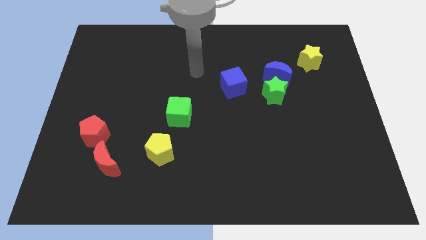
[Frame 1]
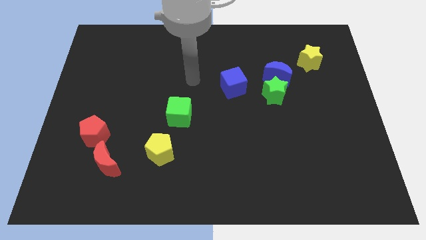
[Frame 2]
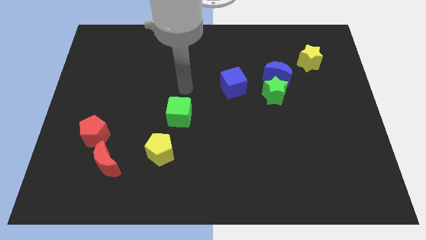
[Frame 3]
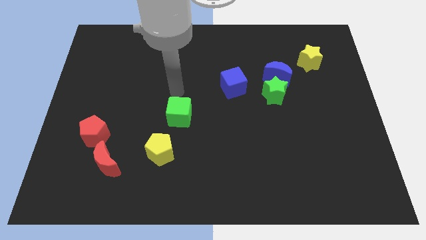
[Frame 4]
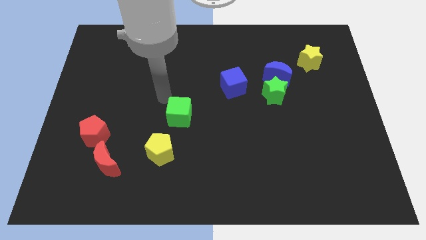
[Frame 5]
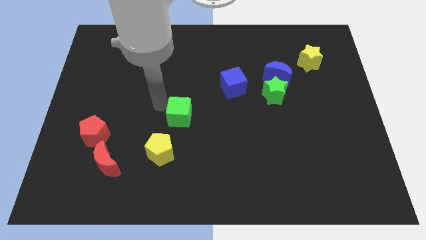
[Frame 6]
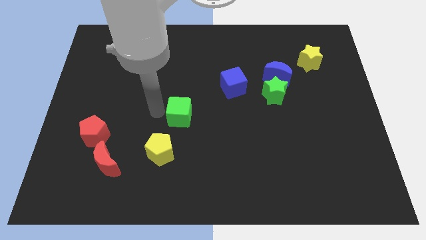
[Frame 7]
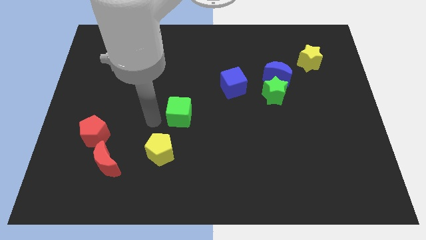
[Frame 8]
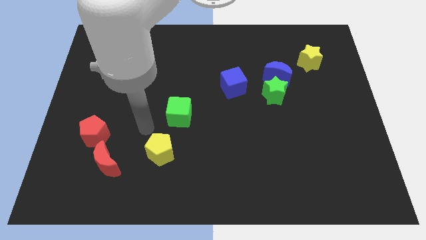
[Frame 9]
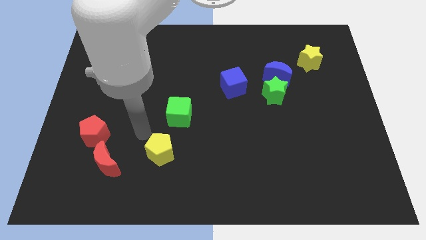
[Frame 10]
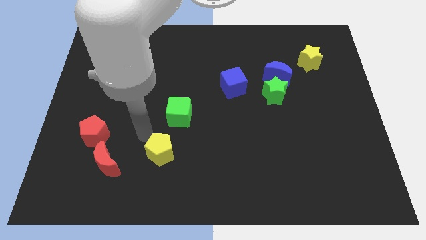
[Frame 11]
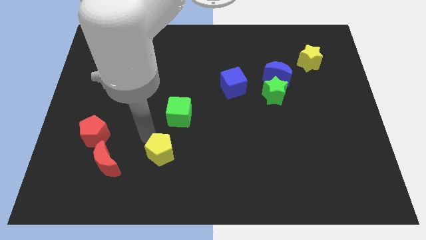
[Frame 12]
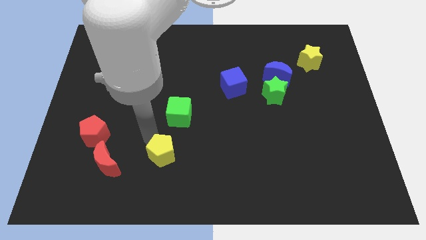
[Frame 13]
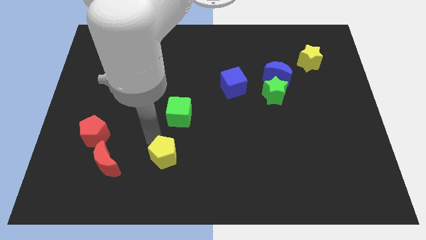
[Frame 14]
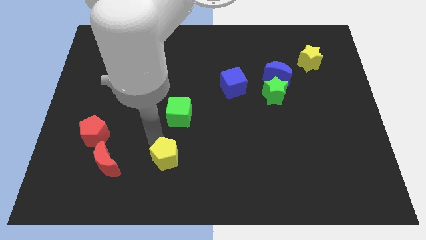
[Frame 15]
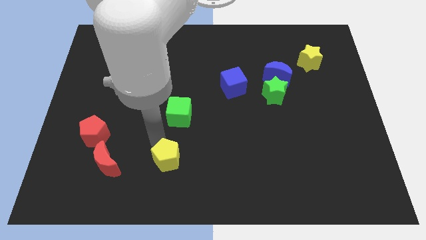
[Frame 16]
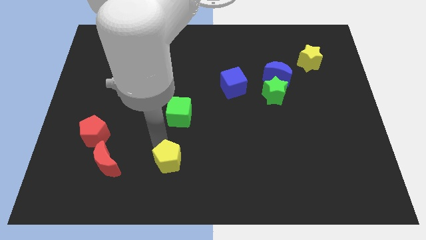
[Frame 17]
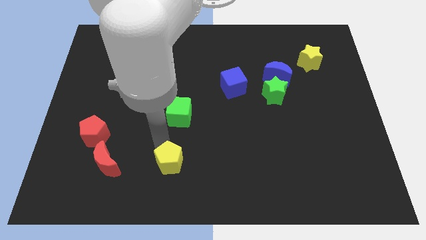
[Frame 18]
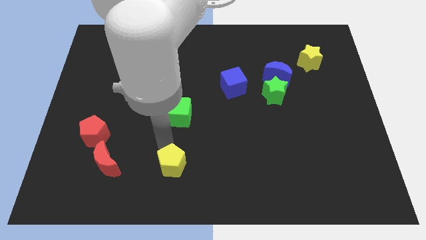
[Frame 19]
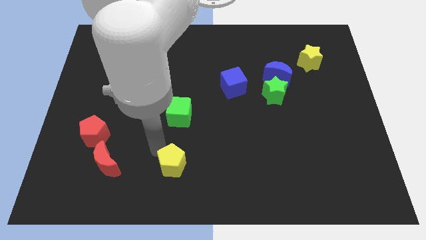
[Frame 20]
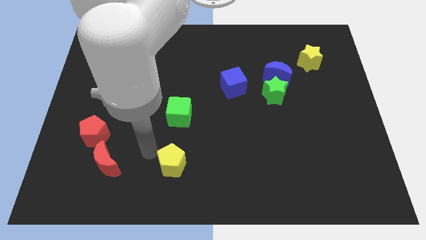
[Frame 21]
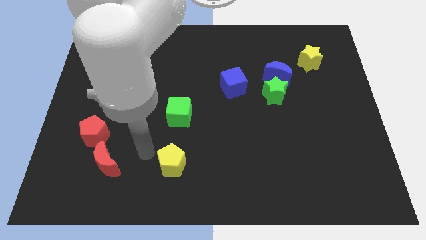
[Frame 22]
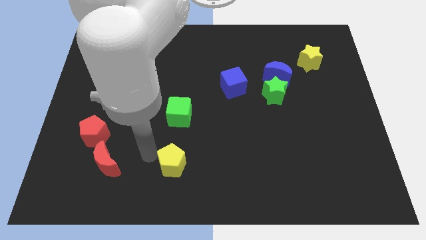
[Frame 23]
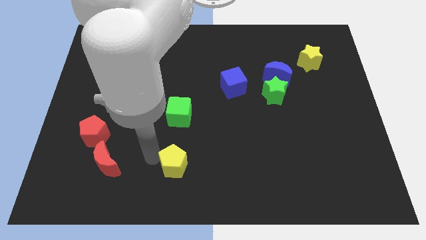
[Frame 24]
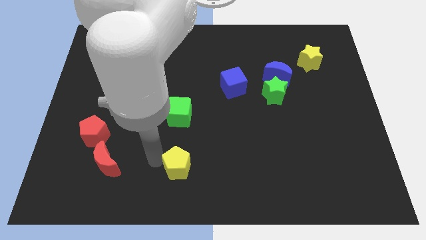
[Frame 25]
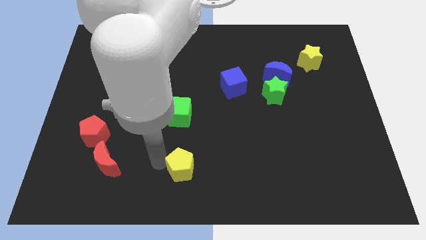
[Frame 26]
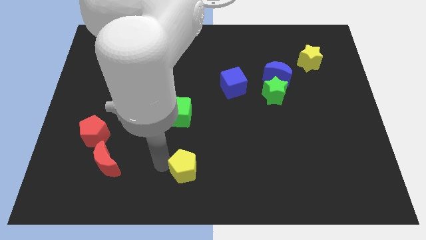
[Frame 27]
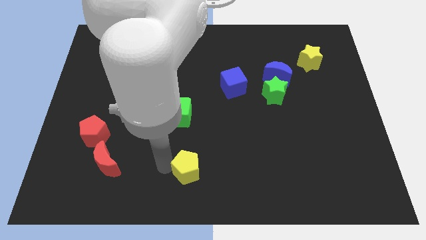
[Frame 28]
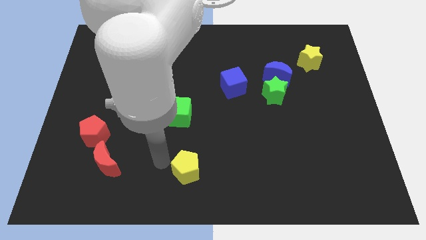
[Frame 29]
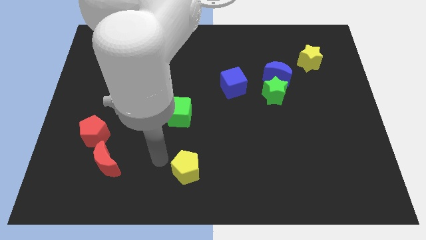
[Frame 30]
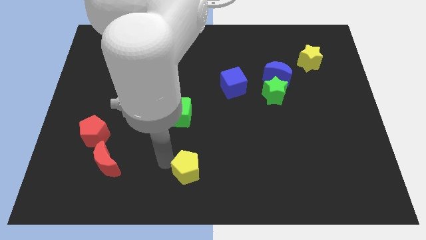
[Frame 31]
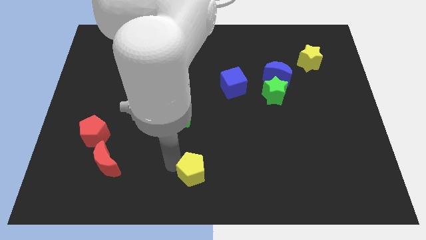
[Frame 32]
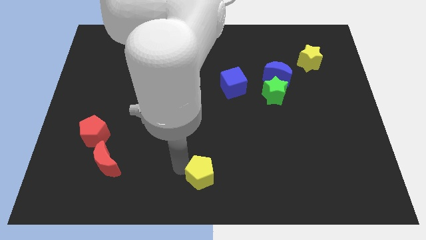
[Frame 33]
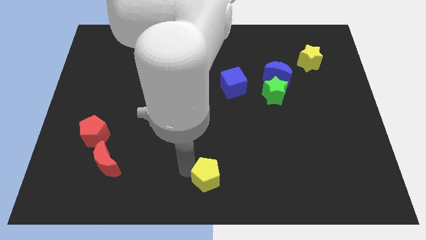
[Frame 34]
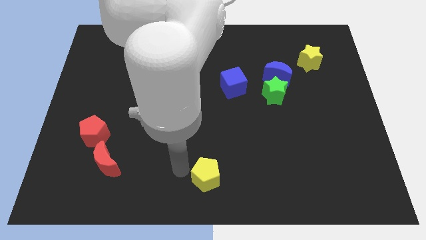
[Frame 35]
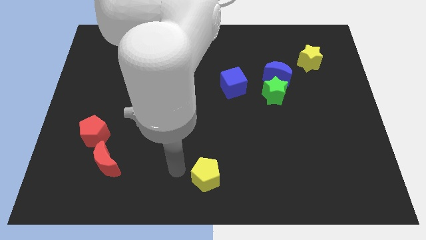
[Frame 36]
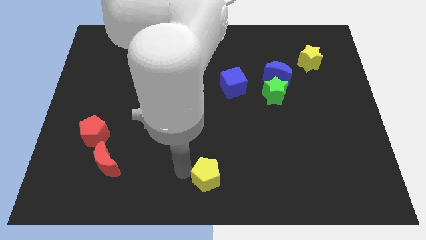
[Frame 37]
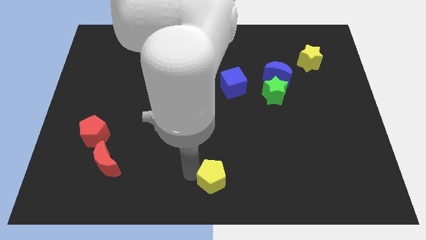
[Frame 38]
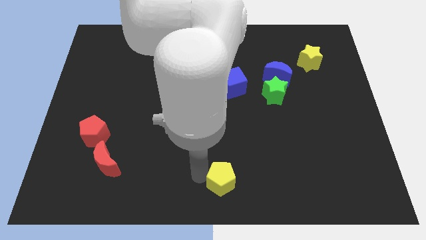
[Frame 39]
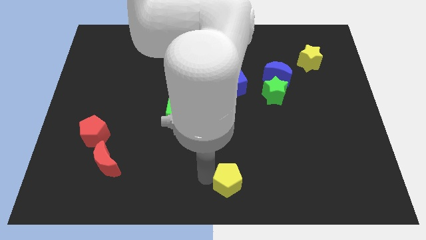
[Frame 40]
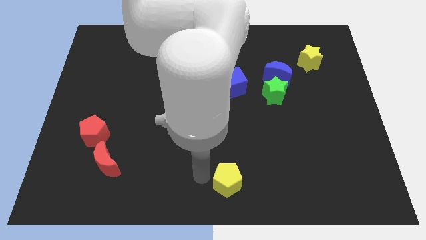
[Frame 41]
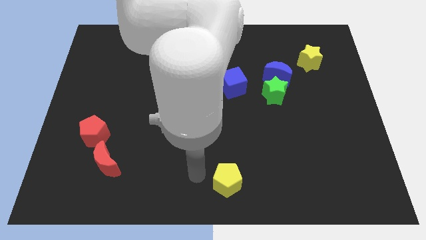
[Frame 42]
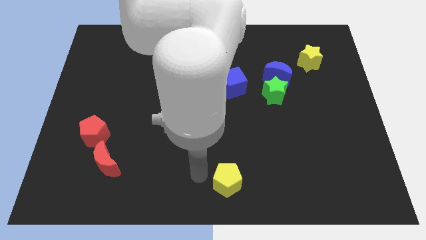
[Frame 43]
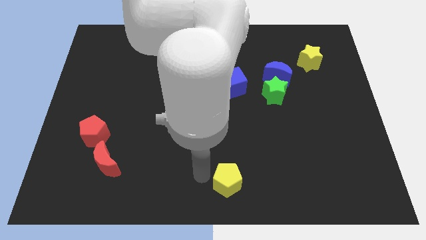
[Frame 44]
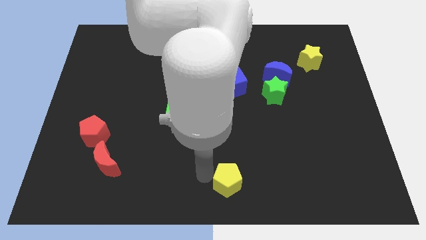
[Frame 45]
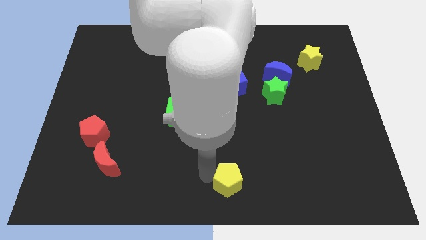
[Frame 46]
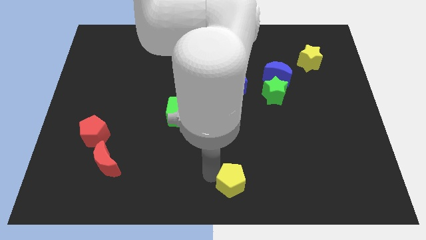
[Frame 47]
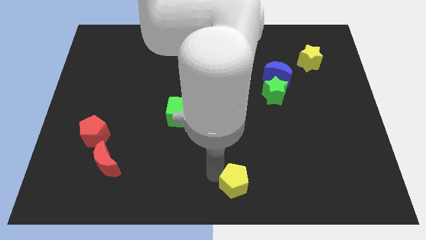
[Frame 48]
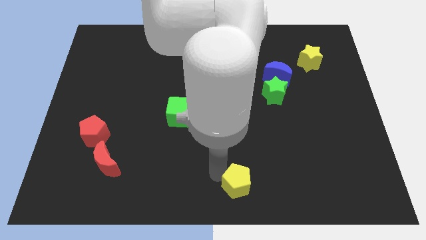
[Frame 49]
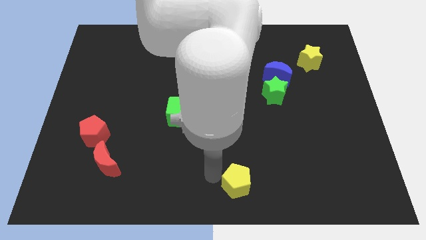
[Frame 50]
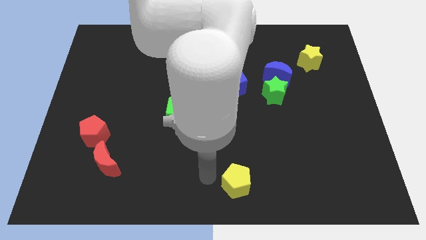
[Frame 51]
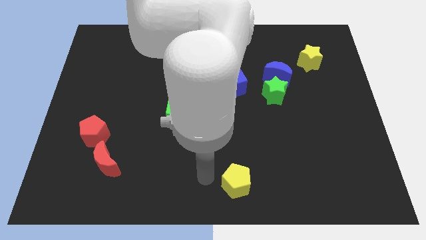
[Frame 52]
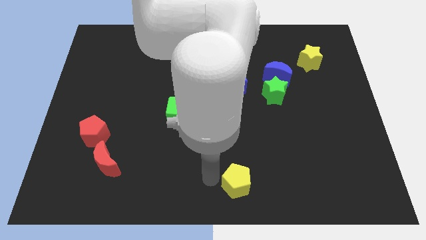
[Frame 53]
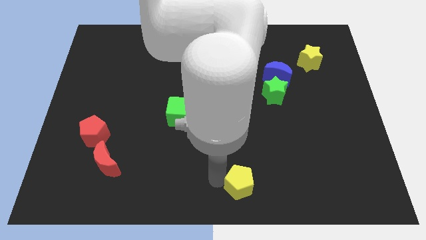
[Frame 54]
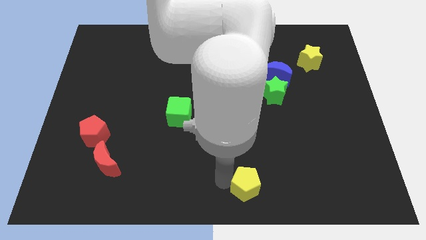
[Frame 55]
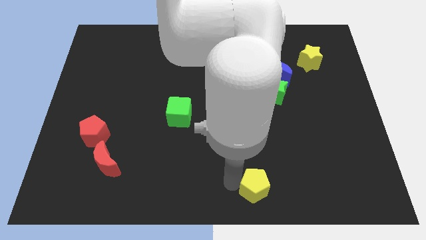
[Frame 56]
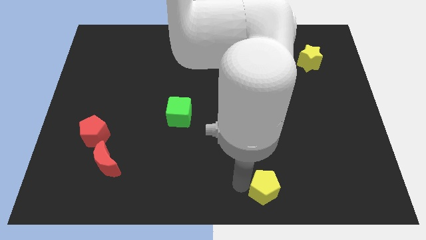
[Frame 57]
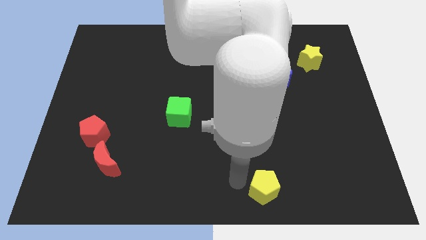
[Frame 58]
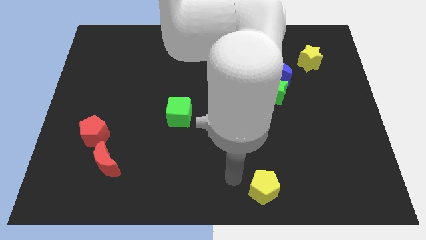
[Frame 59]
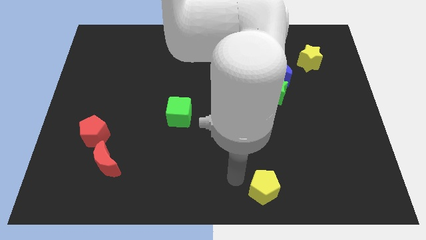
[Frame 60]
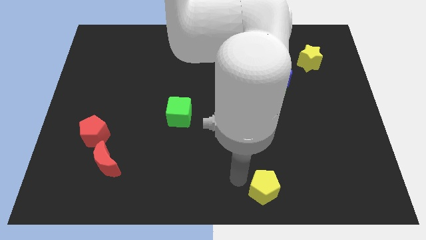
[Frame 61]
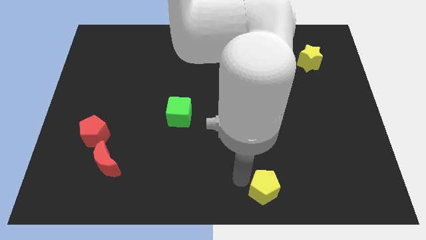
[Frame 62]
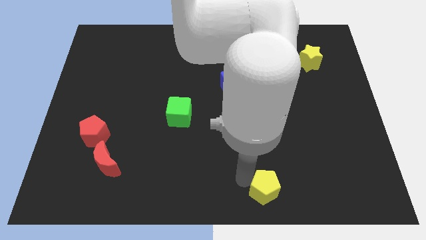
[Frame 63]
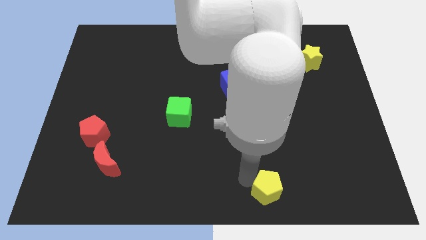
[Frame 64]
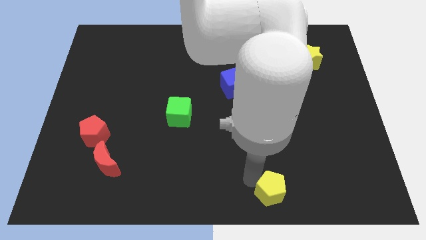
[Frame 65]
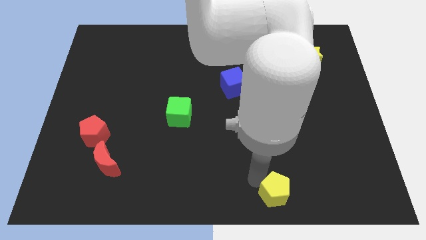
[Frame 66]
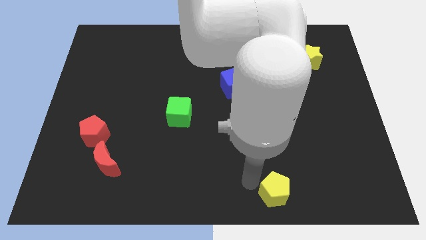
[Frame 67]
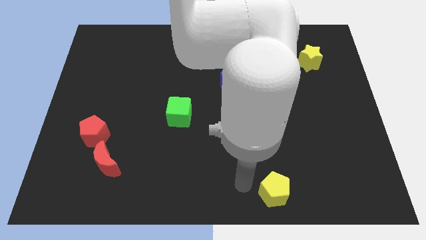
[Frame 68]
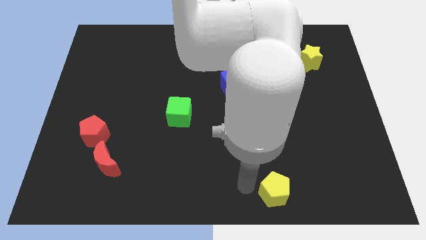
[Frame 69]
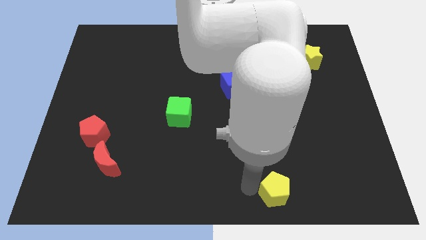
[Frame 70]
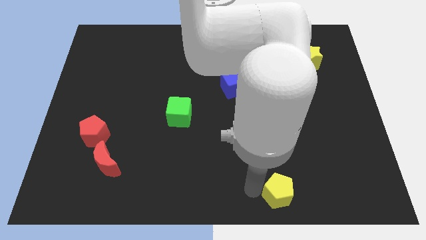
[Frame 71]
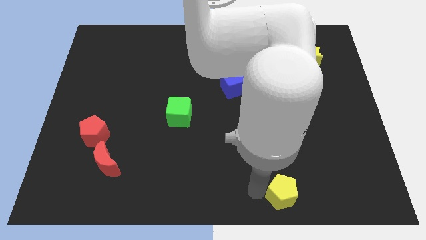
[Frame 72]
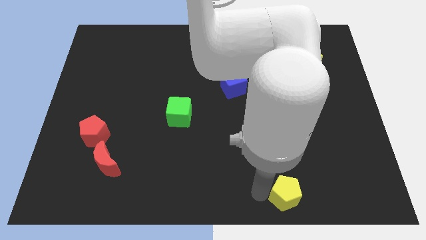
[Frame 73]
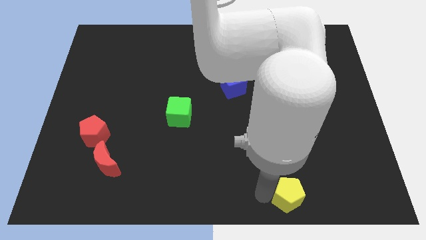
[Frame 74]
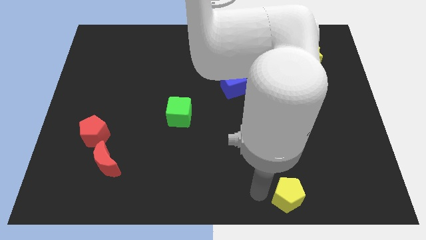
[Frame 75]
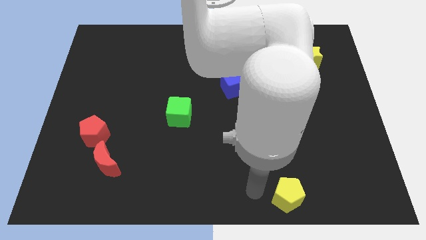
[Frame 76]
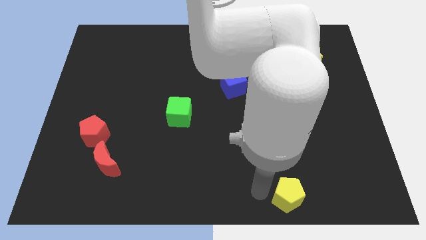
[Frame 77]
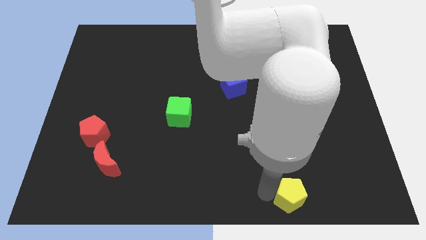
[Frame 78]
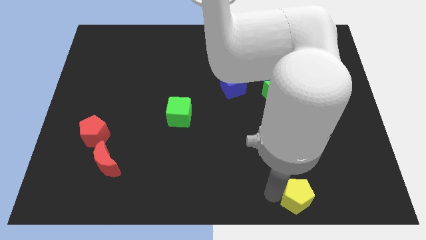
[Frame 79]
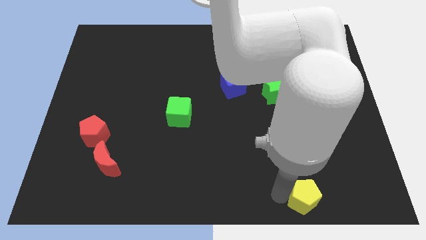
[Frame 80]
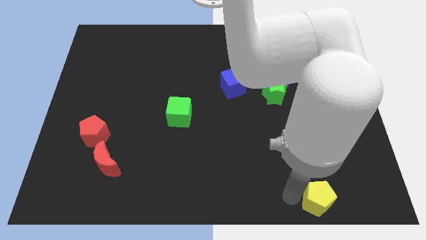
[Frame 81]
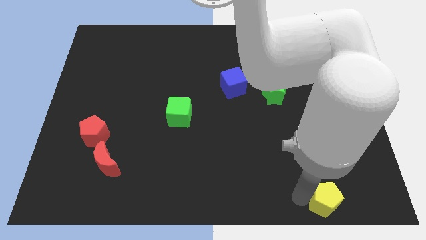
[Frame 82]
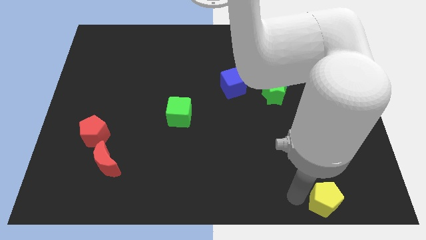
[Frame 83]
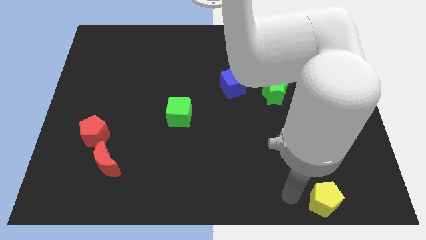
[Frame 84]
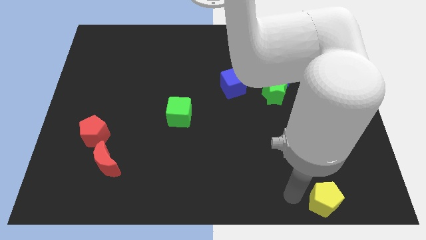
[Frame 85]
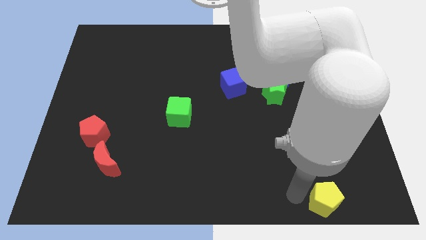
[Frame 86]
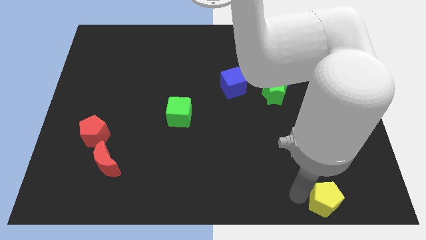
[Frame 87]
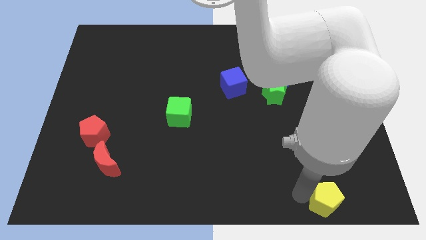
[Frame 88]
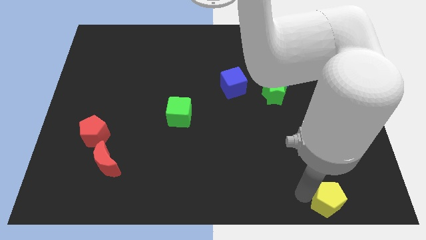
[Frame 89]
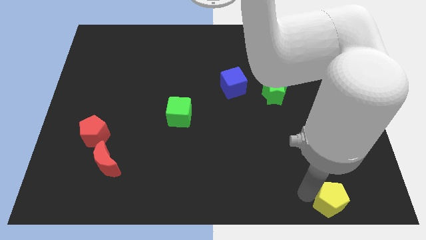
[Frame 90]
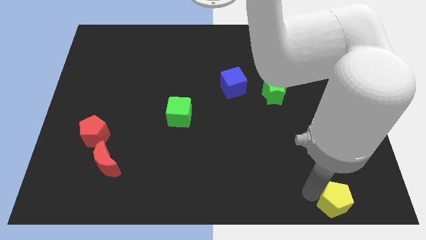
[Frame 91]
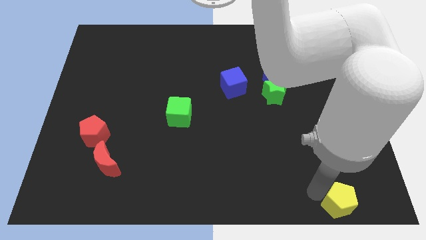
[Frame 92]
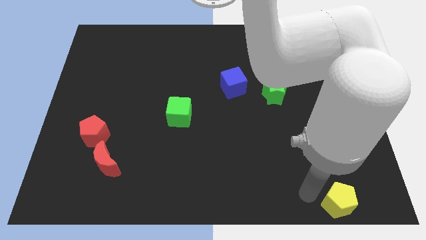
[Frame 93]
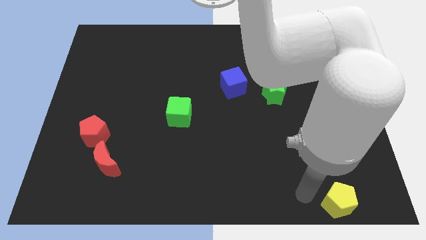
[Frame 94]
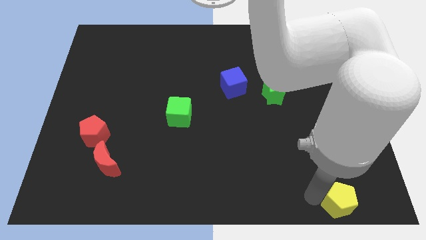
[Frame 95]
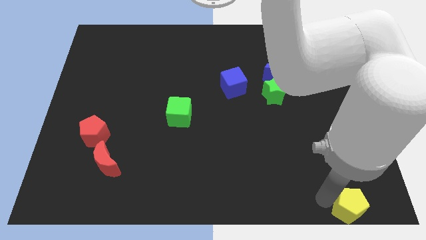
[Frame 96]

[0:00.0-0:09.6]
move the yellow pentagon to the lower right corner
